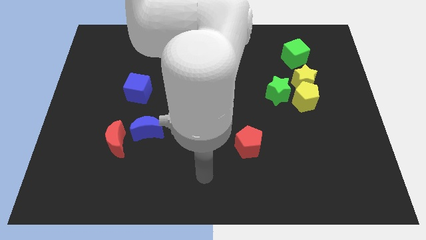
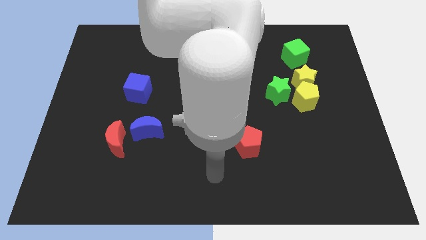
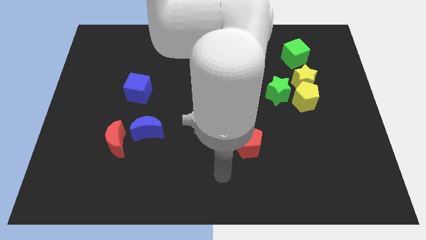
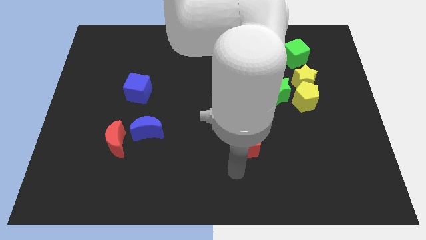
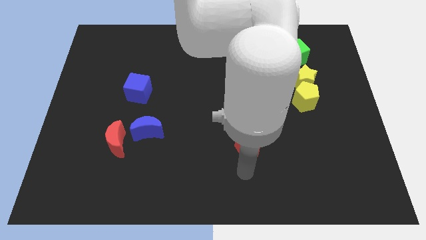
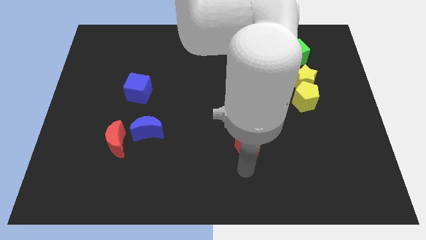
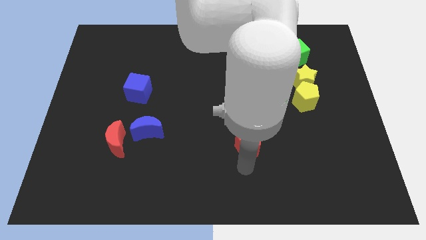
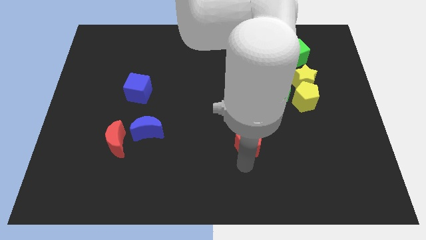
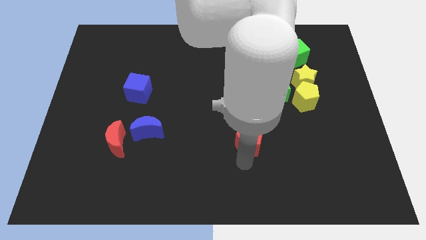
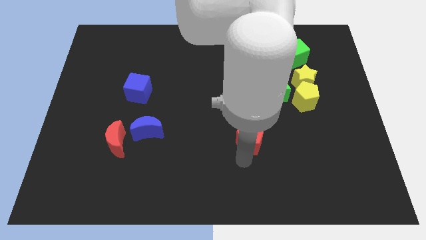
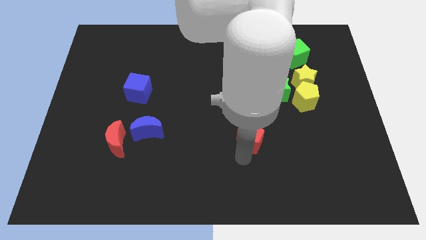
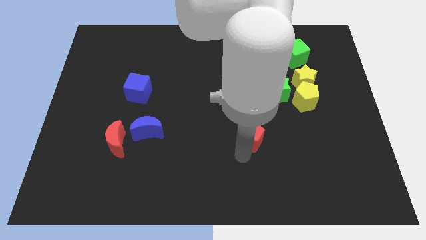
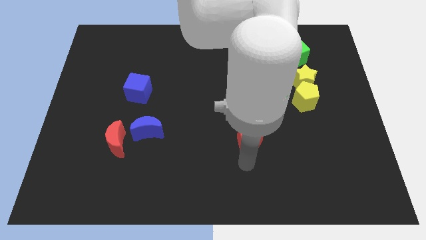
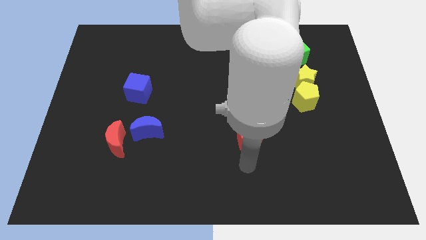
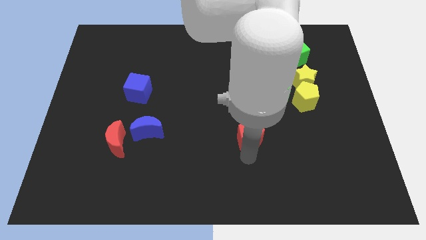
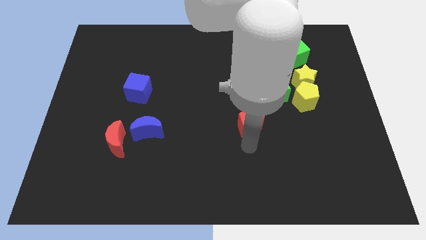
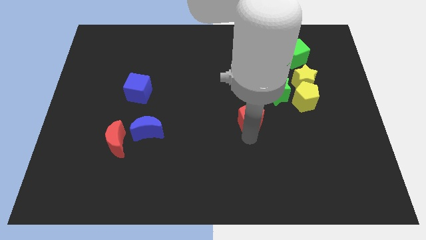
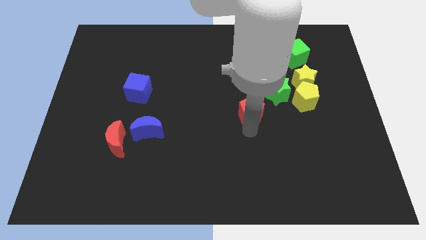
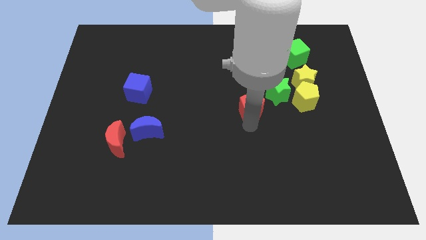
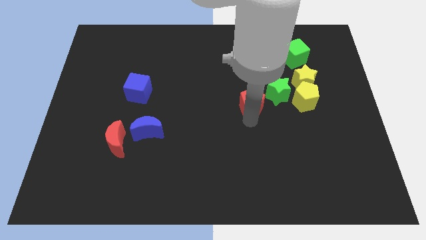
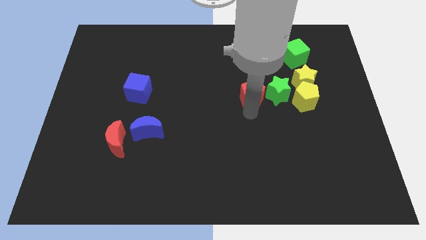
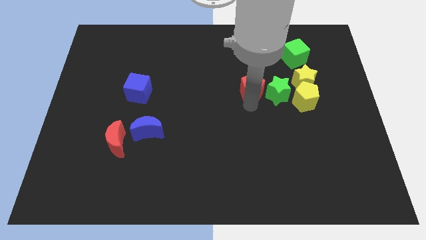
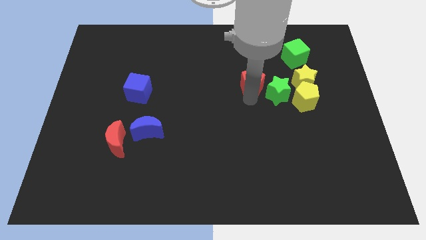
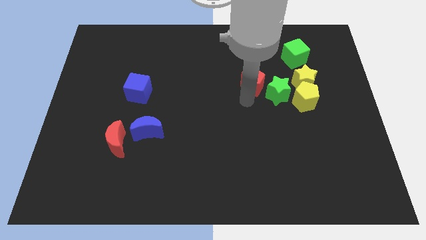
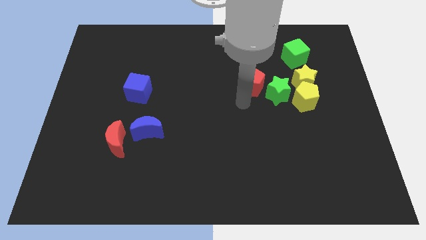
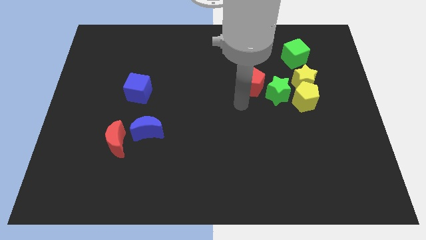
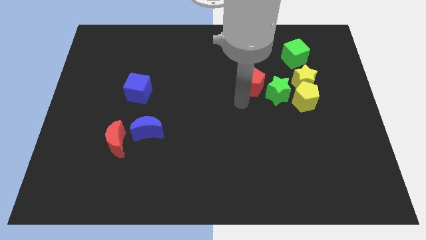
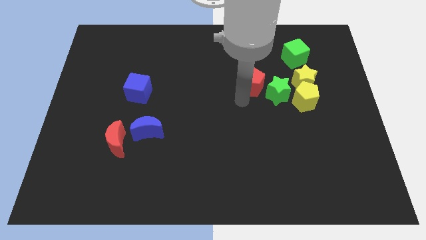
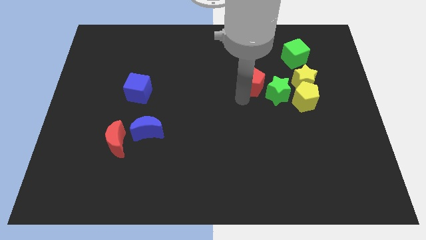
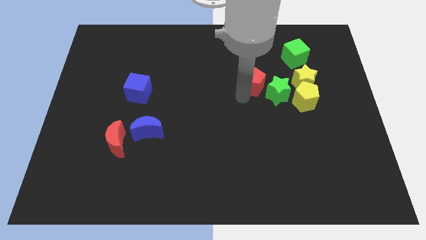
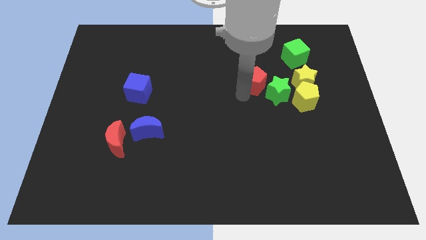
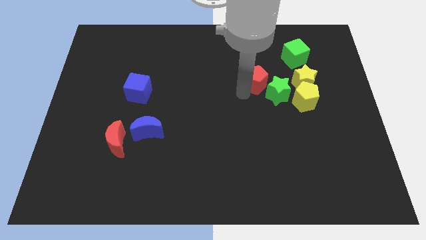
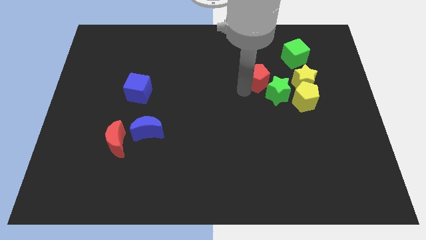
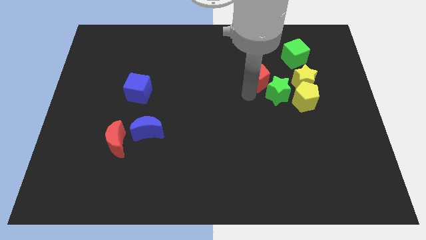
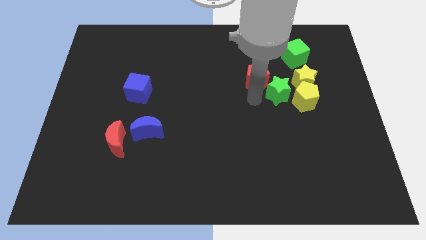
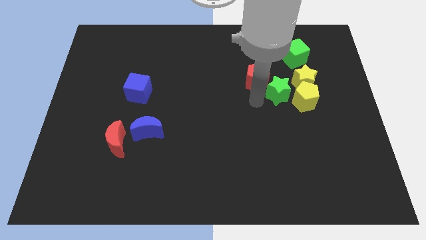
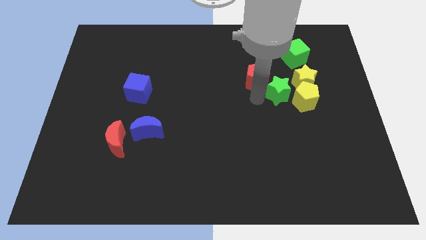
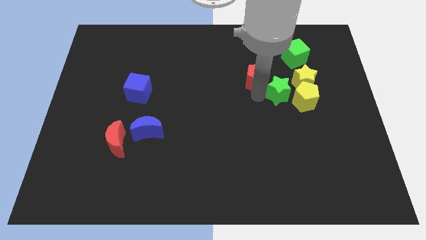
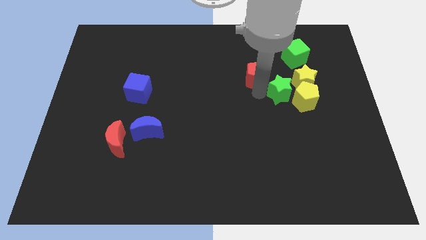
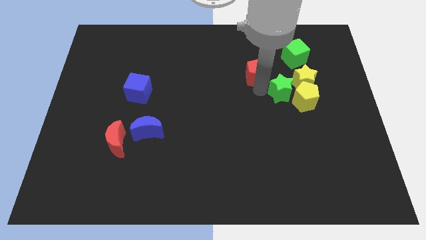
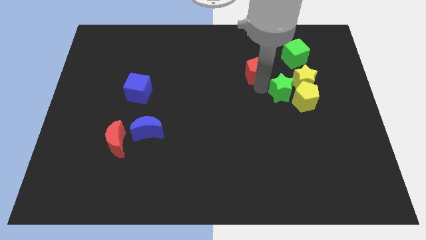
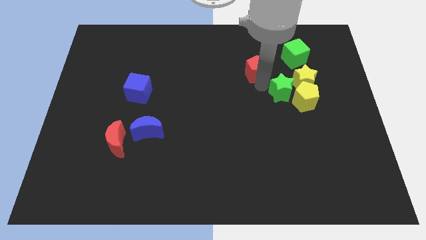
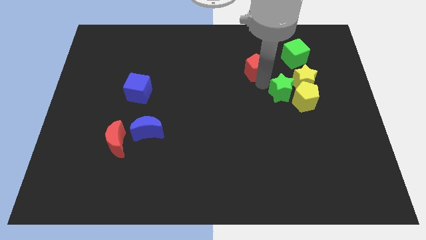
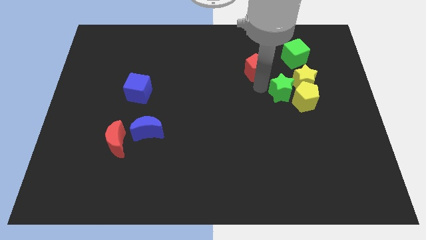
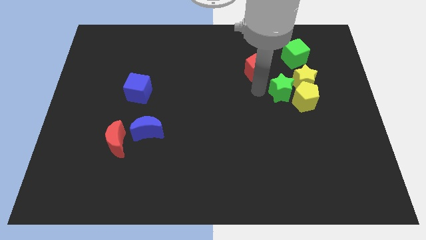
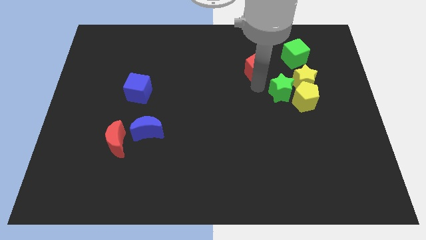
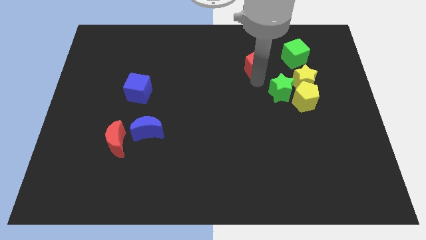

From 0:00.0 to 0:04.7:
move the red pentagon to the left of the green cube

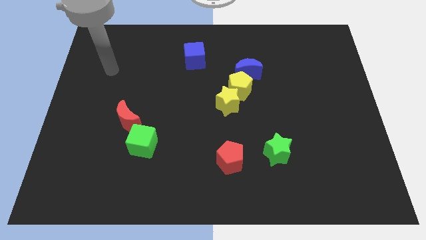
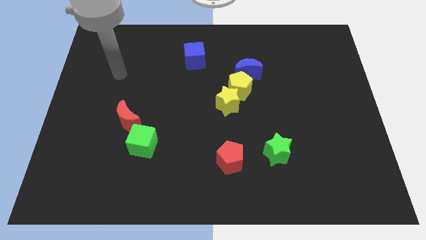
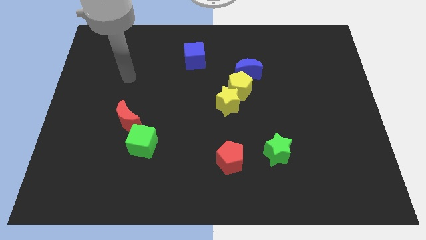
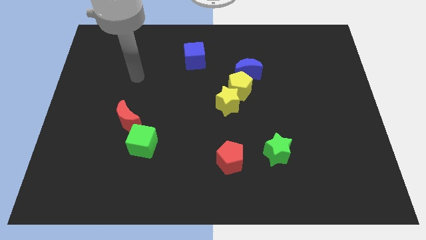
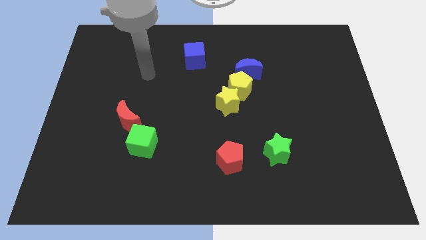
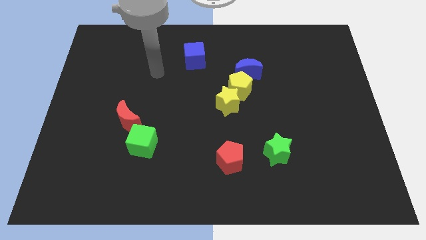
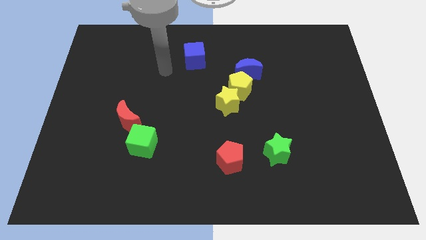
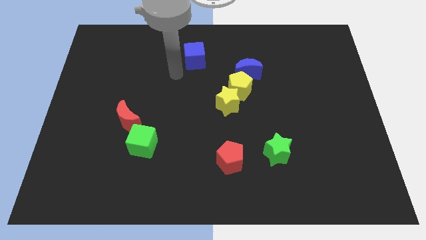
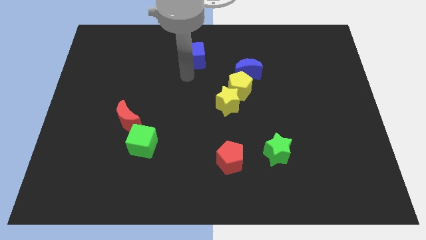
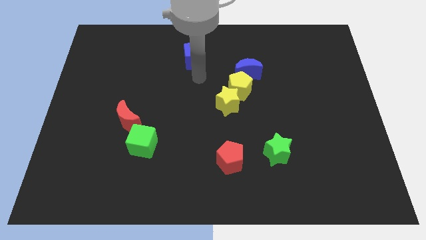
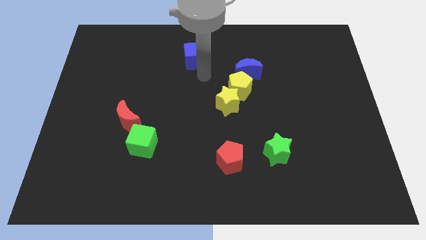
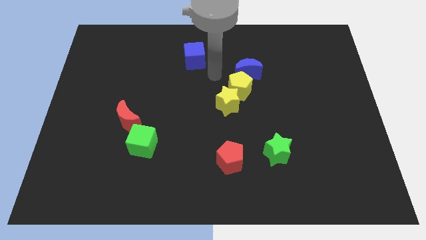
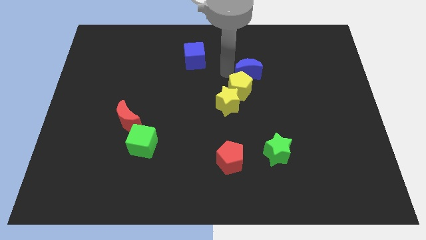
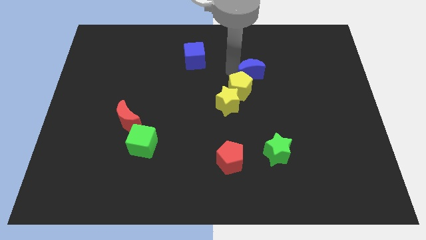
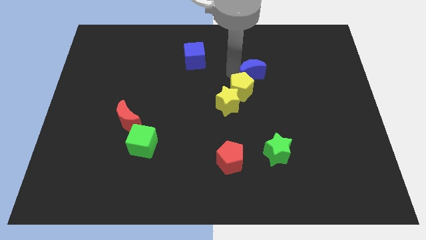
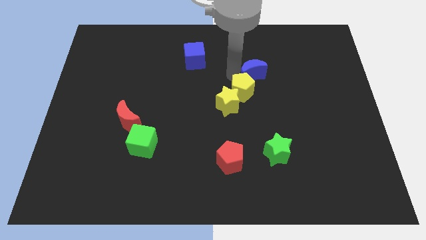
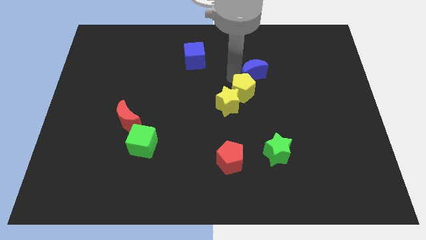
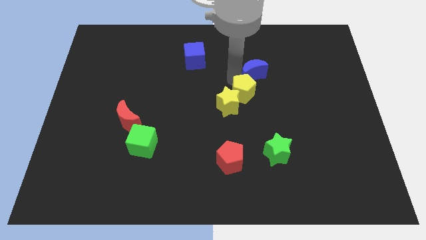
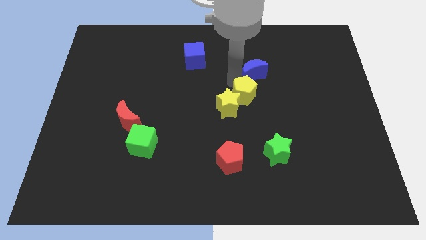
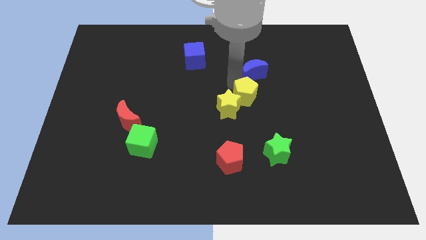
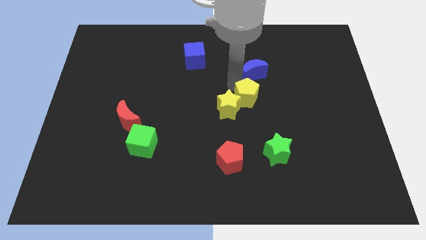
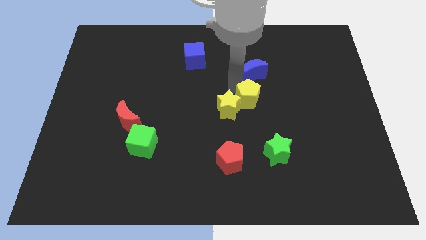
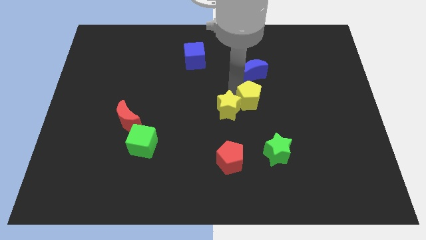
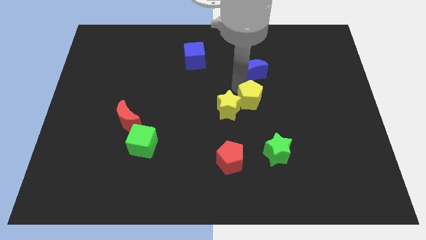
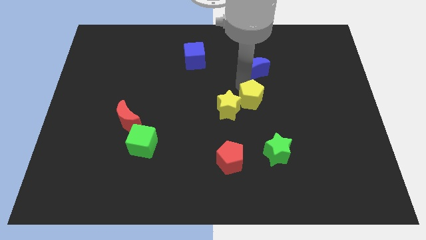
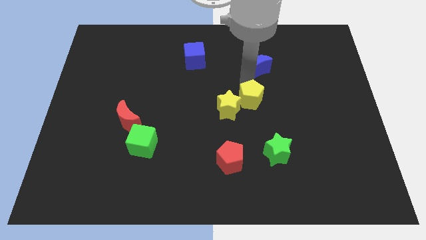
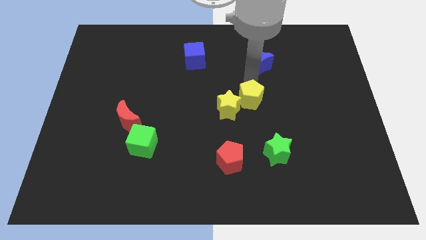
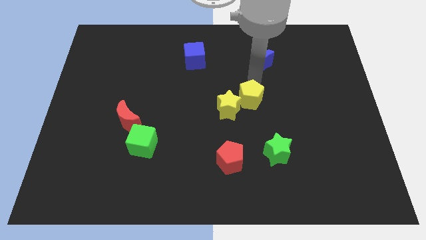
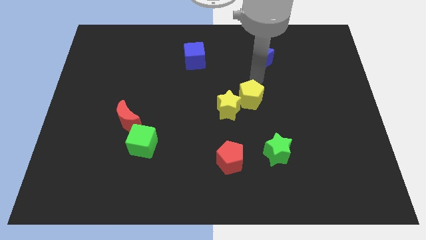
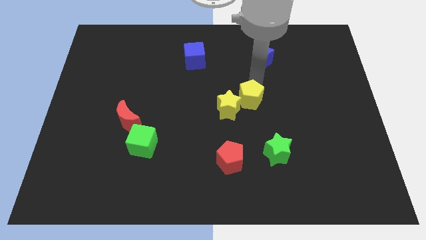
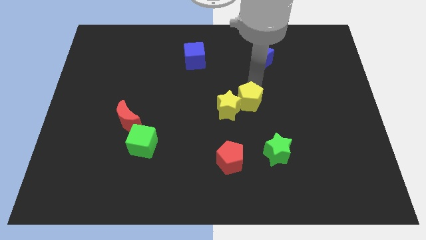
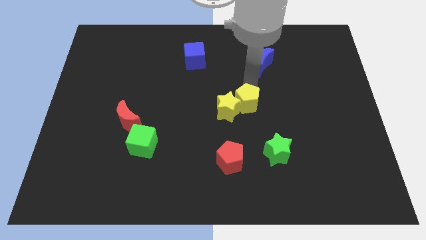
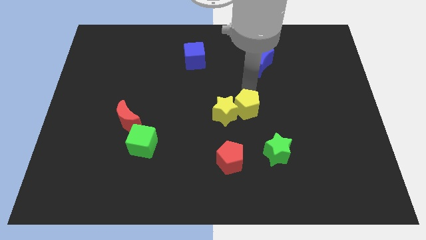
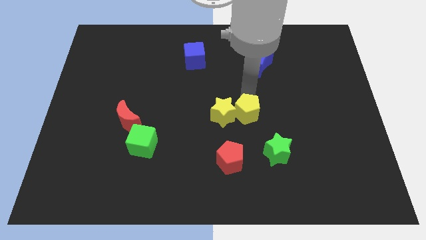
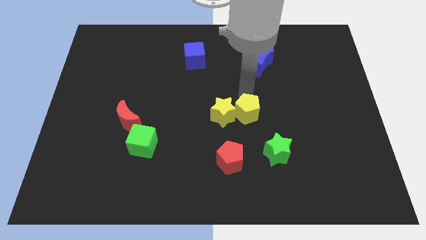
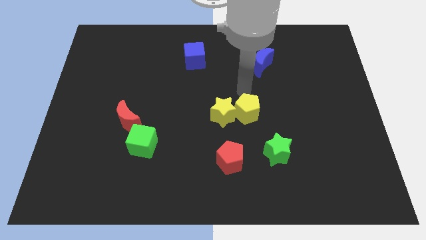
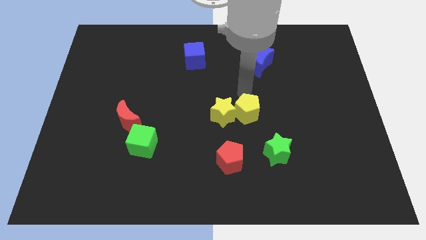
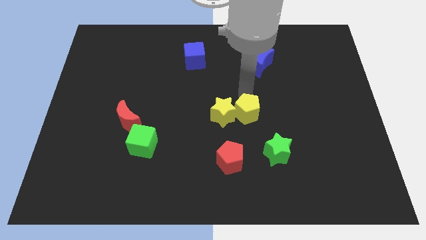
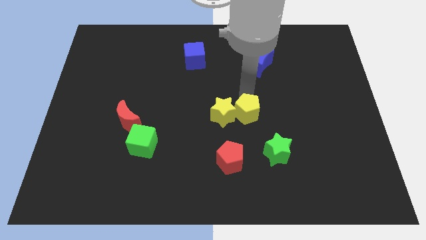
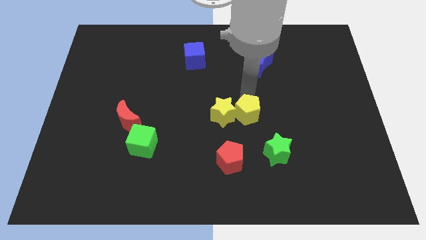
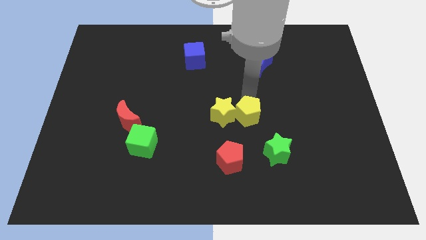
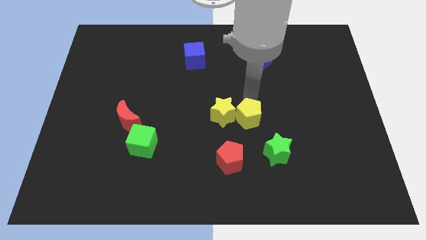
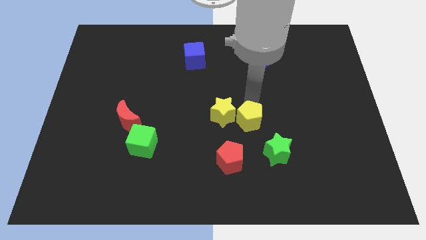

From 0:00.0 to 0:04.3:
put the yellow pentagon to the top right of the red pentagon
